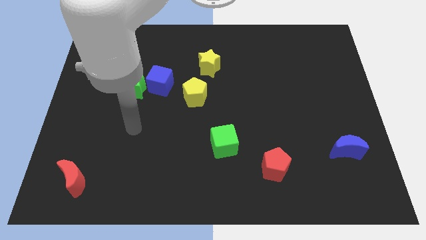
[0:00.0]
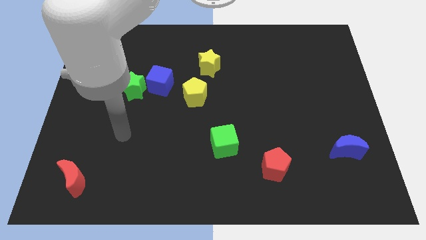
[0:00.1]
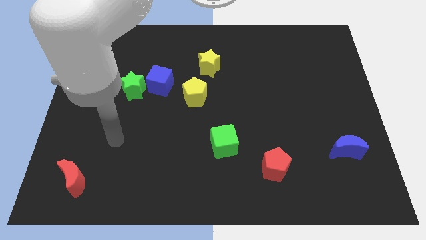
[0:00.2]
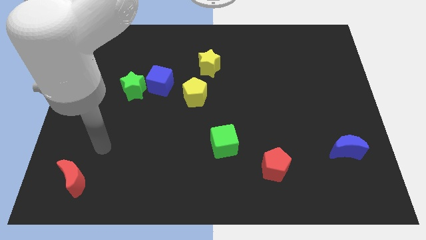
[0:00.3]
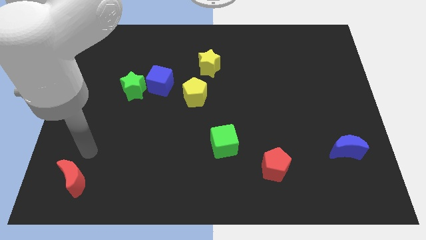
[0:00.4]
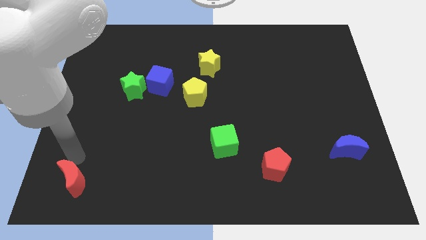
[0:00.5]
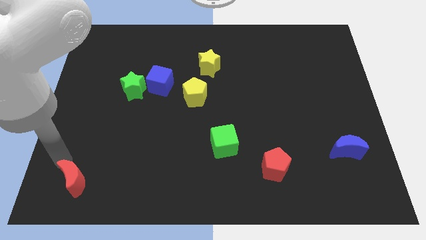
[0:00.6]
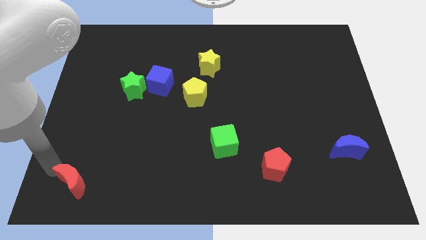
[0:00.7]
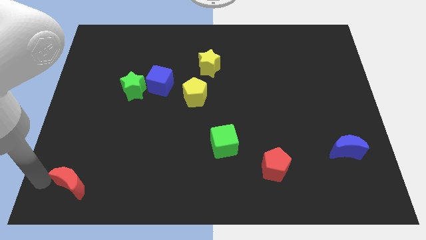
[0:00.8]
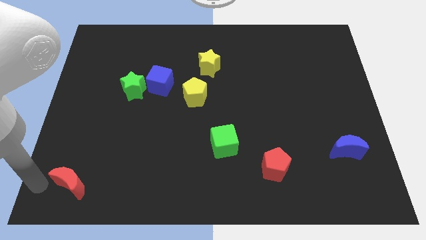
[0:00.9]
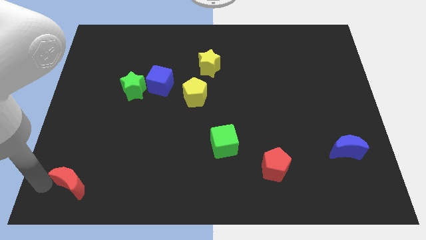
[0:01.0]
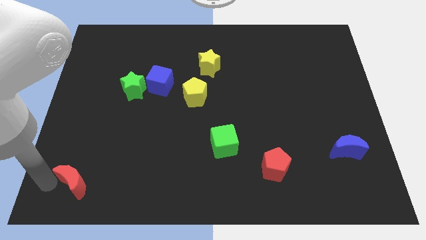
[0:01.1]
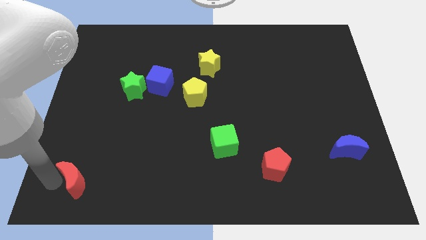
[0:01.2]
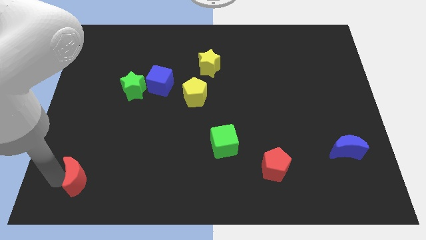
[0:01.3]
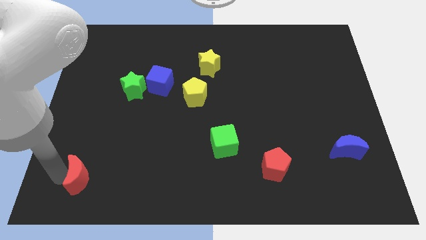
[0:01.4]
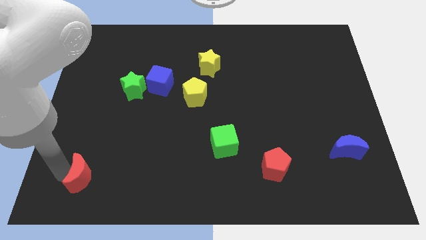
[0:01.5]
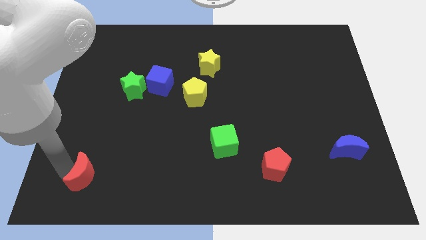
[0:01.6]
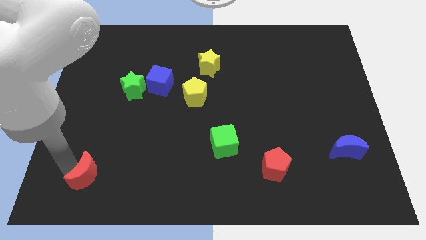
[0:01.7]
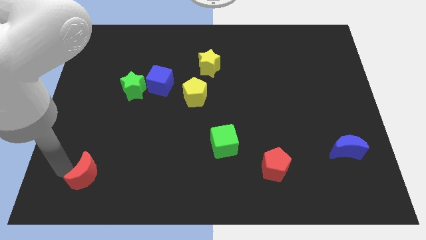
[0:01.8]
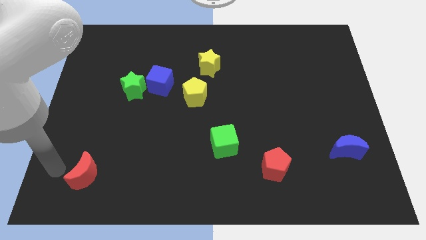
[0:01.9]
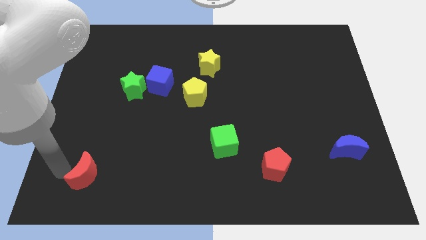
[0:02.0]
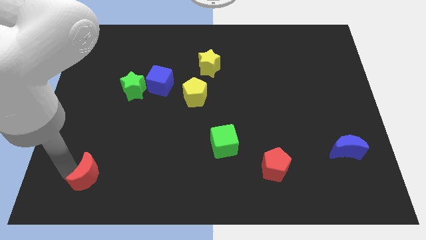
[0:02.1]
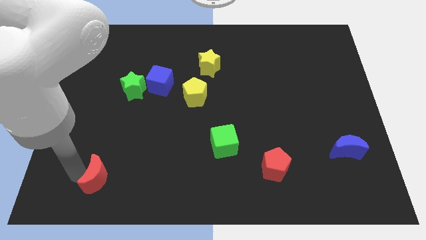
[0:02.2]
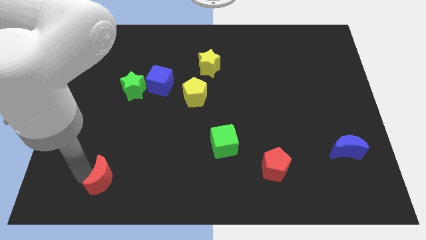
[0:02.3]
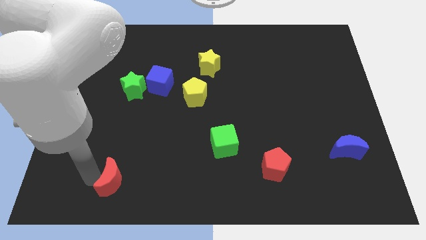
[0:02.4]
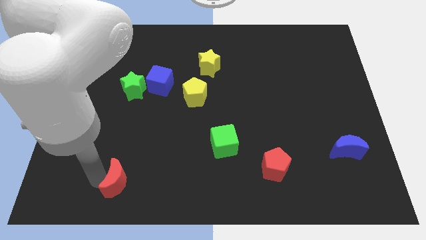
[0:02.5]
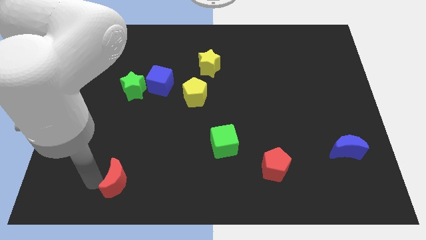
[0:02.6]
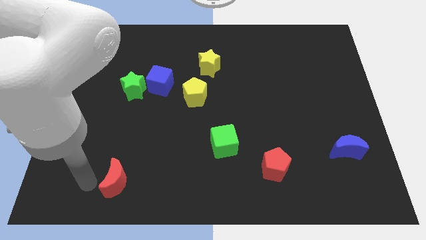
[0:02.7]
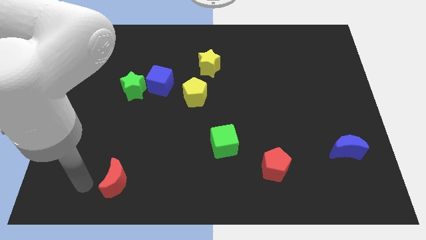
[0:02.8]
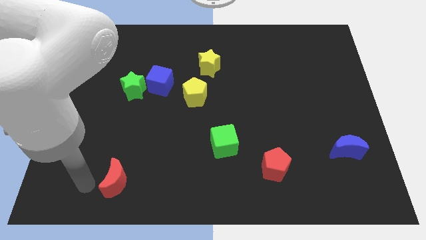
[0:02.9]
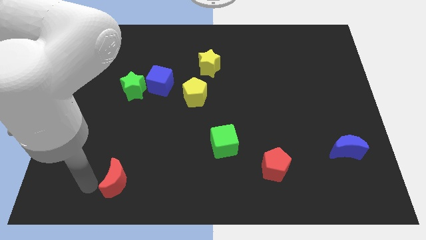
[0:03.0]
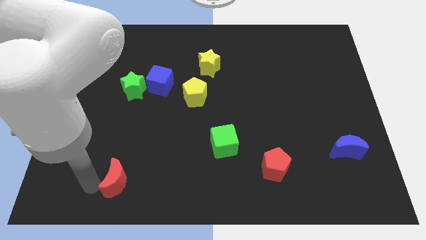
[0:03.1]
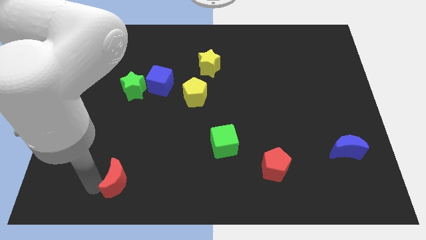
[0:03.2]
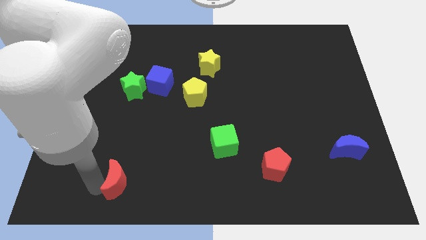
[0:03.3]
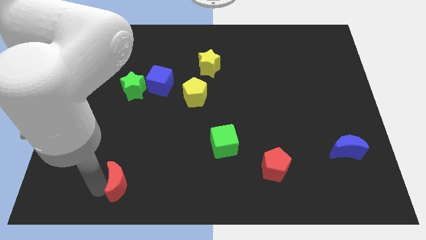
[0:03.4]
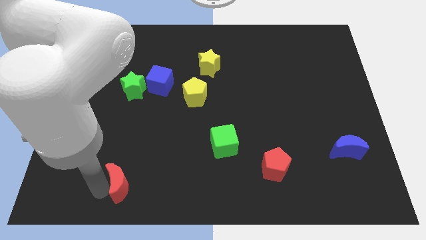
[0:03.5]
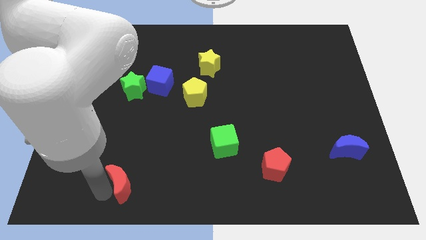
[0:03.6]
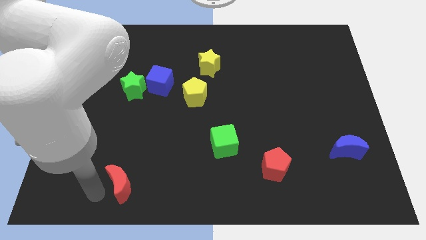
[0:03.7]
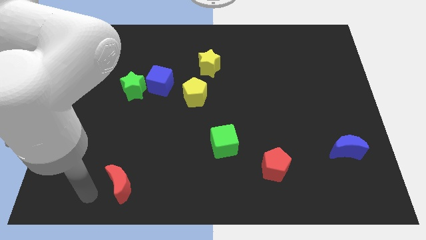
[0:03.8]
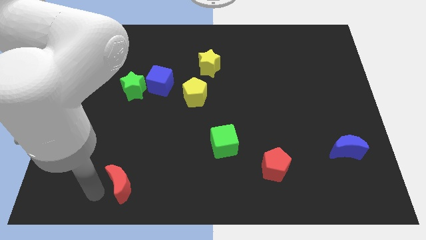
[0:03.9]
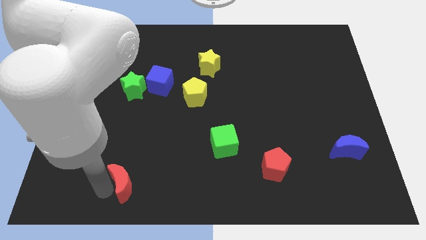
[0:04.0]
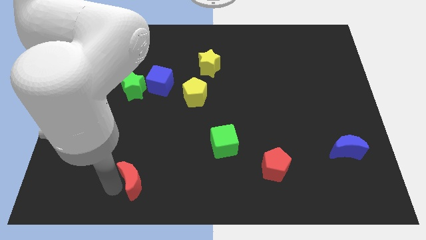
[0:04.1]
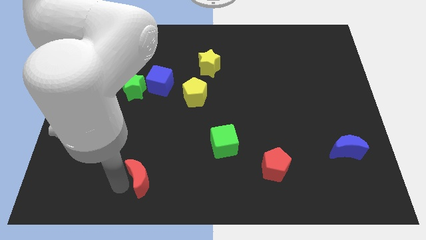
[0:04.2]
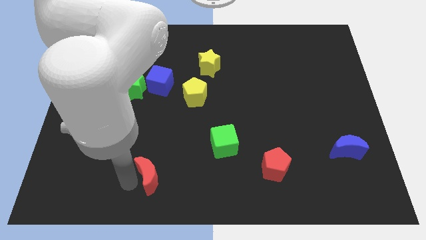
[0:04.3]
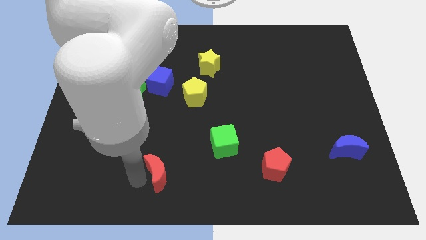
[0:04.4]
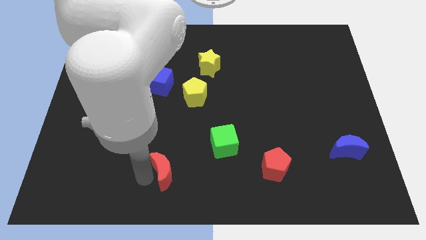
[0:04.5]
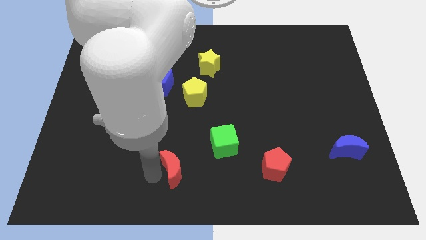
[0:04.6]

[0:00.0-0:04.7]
put the red moon to the bottom left side of the green cube

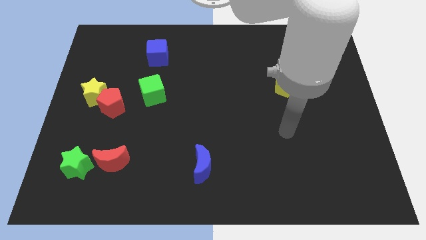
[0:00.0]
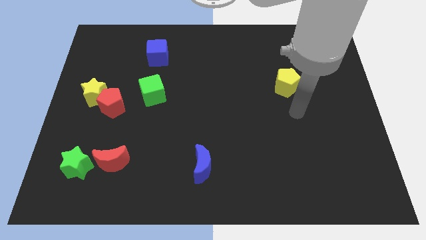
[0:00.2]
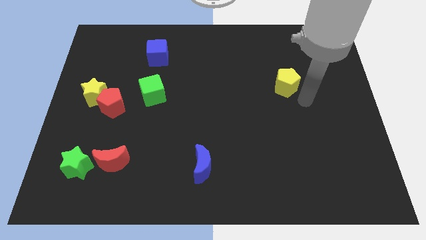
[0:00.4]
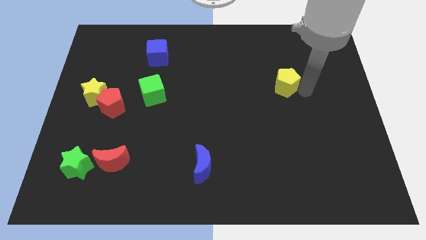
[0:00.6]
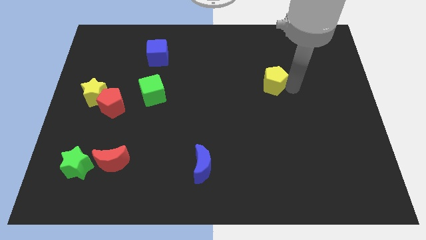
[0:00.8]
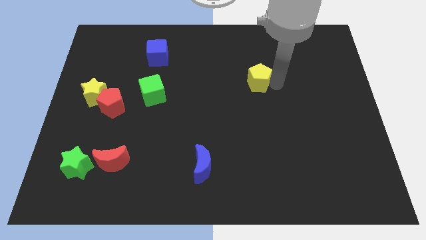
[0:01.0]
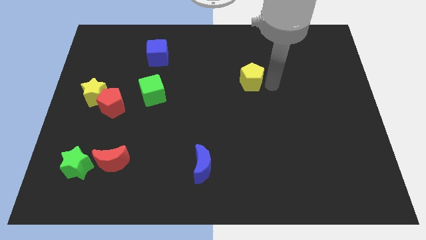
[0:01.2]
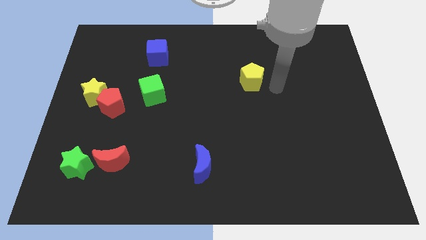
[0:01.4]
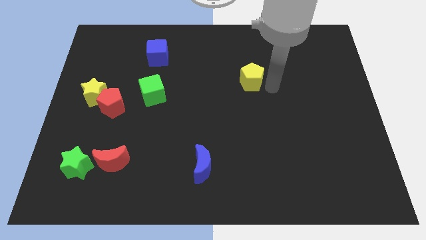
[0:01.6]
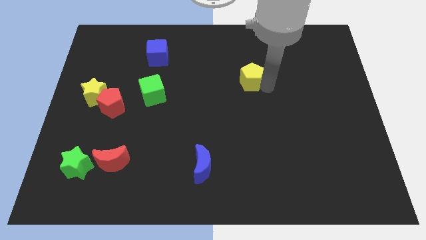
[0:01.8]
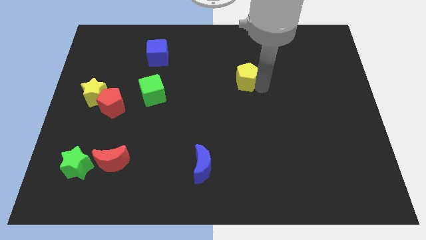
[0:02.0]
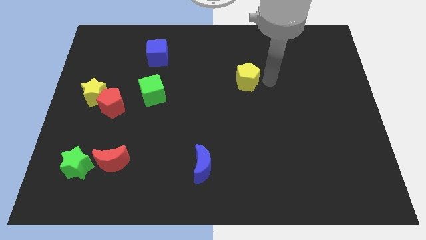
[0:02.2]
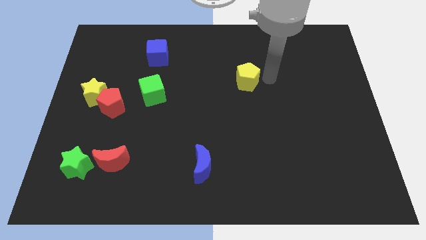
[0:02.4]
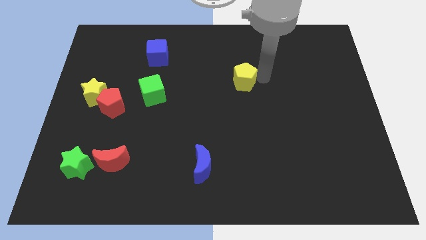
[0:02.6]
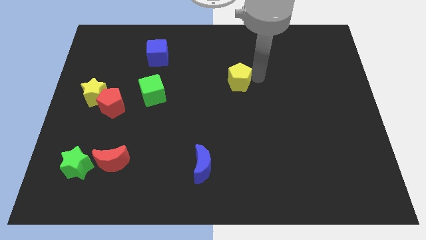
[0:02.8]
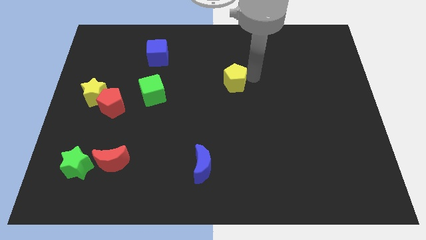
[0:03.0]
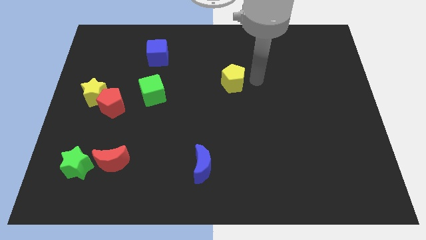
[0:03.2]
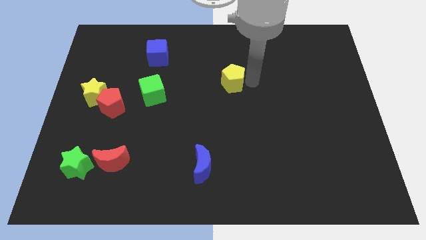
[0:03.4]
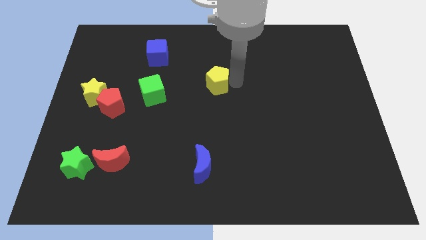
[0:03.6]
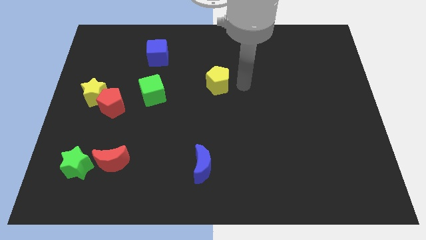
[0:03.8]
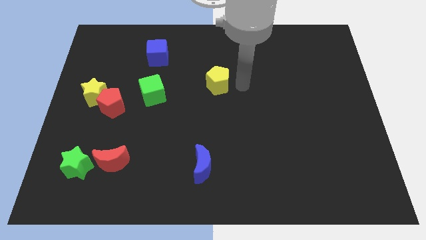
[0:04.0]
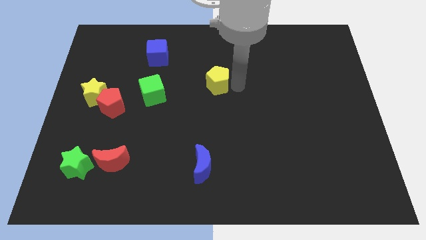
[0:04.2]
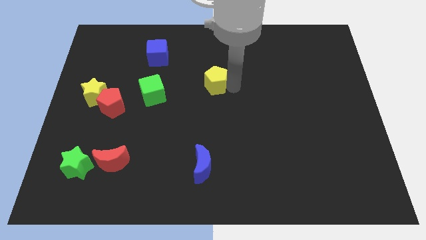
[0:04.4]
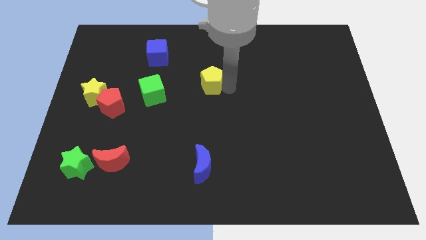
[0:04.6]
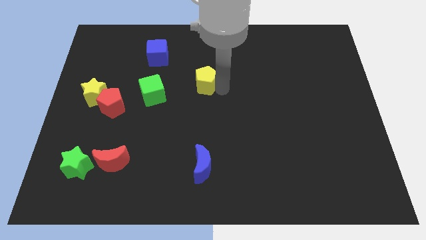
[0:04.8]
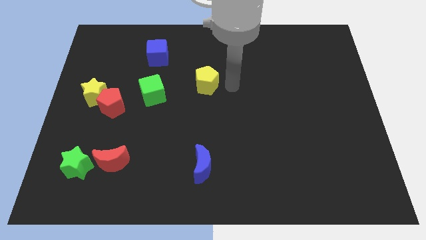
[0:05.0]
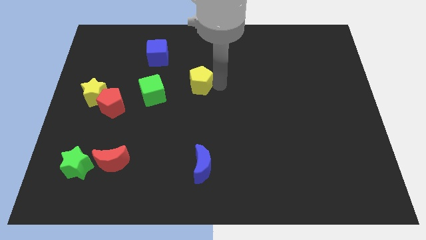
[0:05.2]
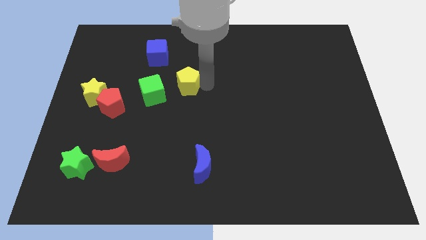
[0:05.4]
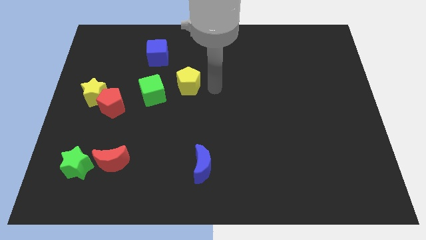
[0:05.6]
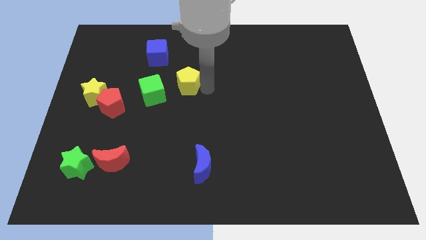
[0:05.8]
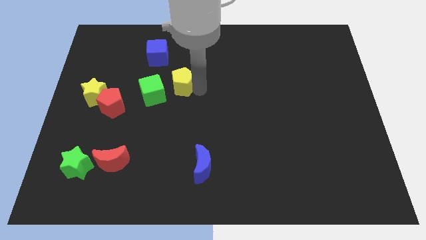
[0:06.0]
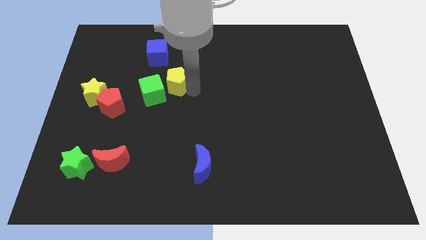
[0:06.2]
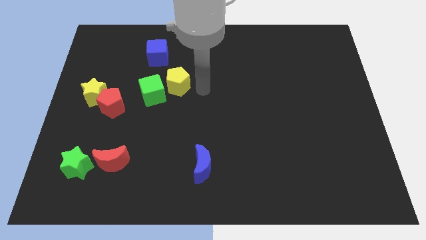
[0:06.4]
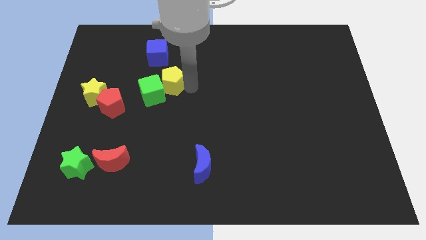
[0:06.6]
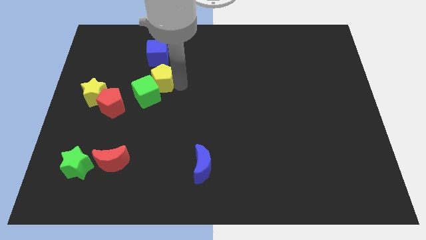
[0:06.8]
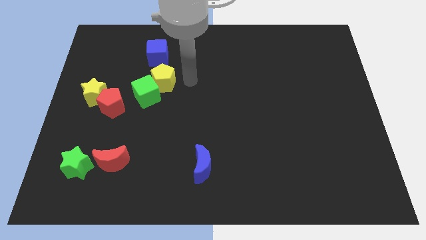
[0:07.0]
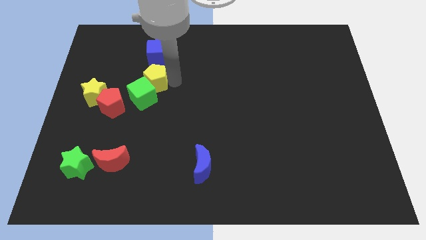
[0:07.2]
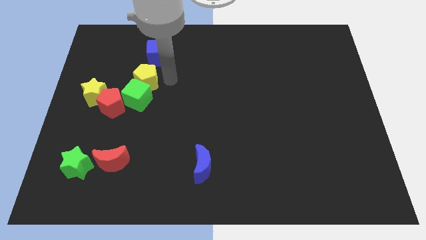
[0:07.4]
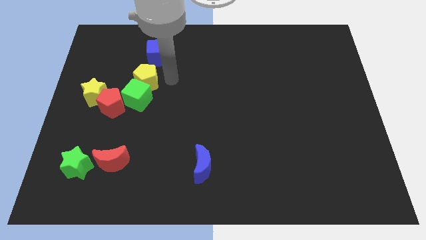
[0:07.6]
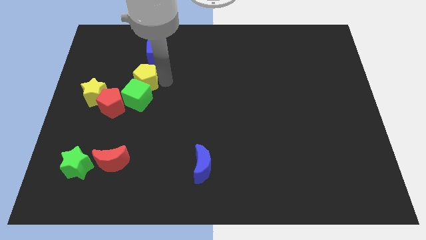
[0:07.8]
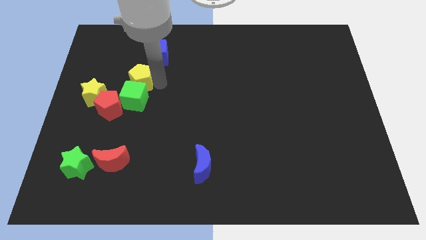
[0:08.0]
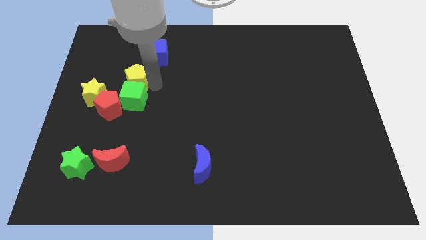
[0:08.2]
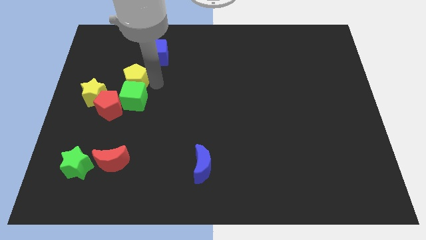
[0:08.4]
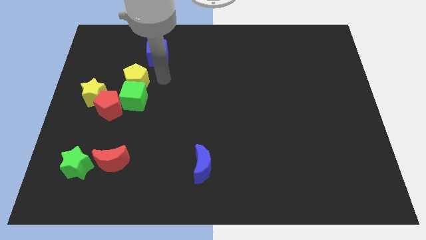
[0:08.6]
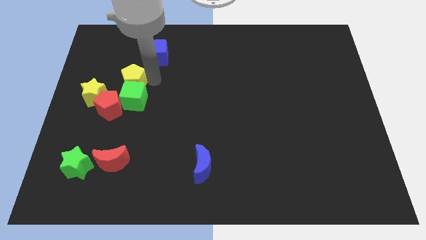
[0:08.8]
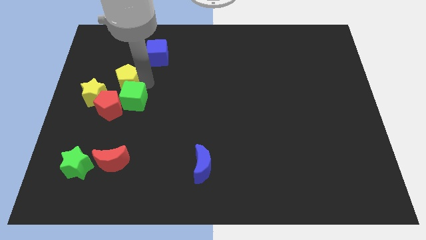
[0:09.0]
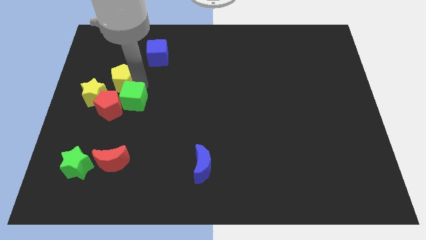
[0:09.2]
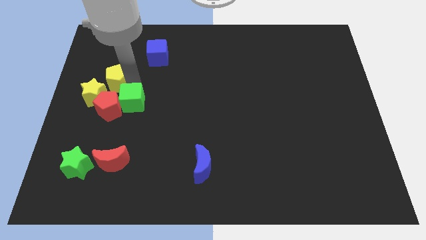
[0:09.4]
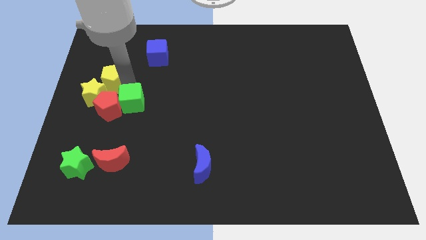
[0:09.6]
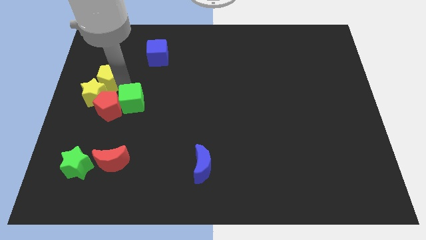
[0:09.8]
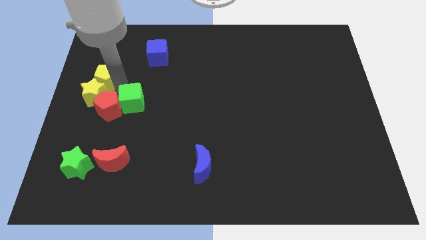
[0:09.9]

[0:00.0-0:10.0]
move the yellow pentagon diagonally up and to the left of the red pentagon
